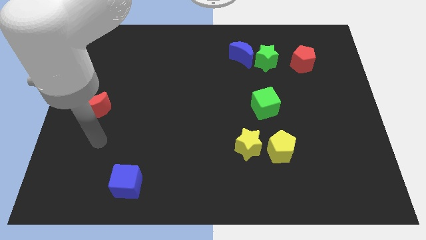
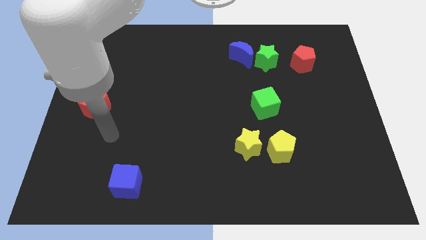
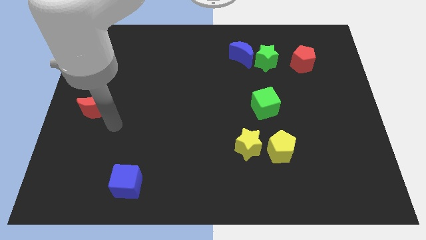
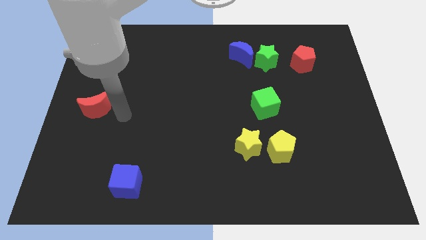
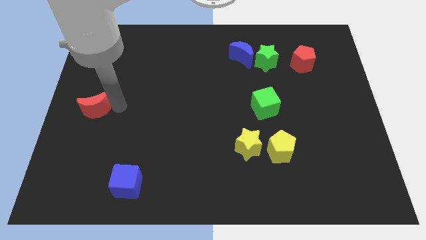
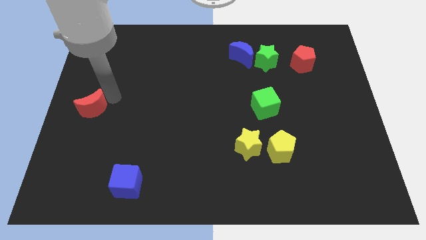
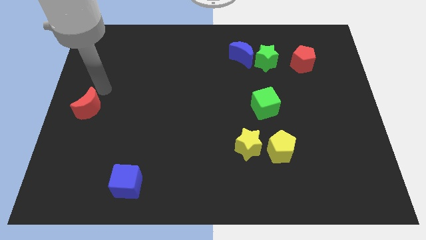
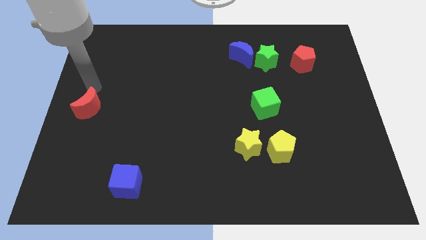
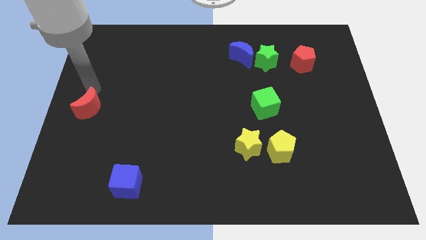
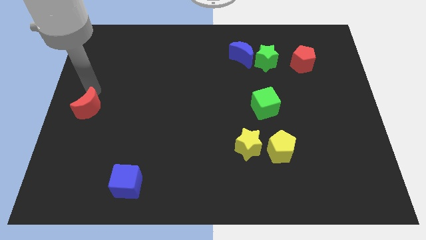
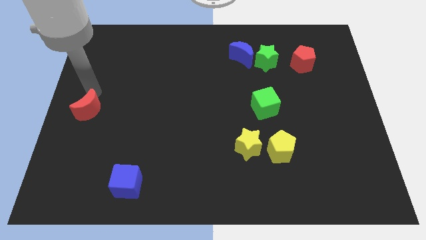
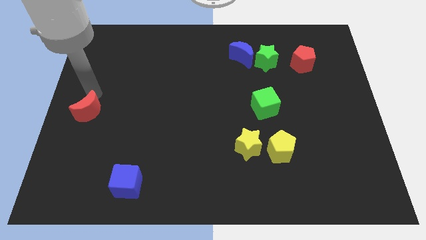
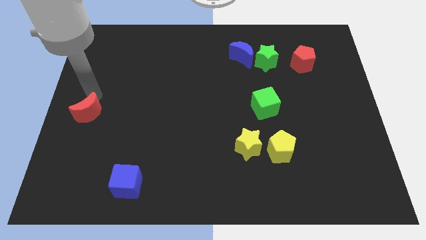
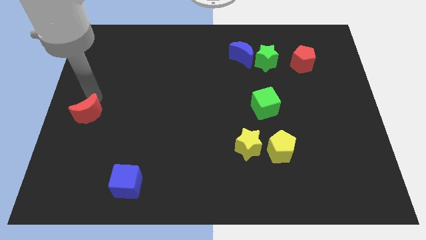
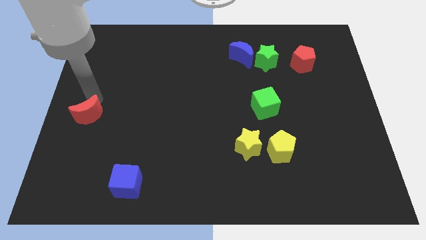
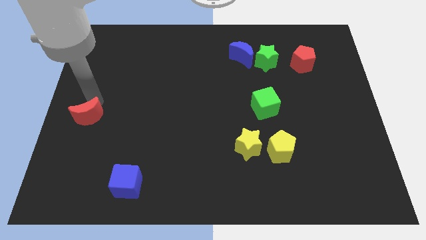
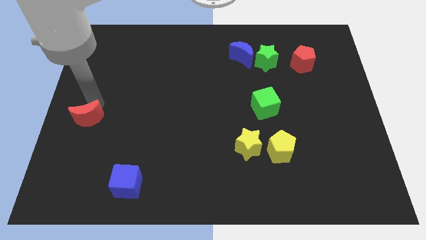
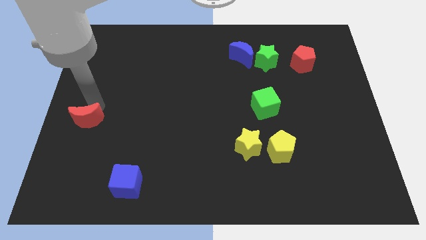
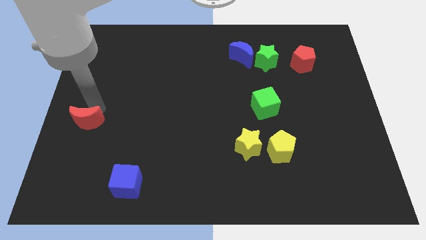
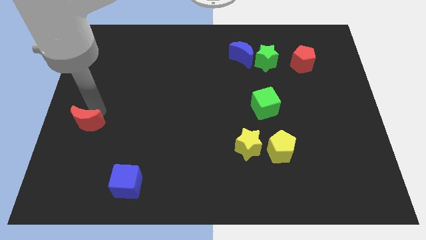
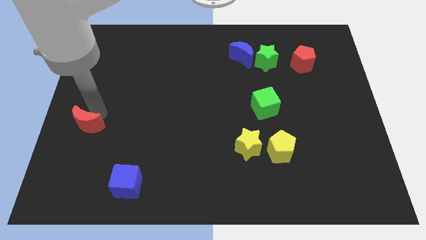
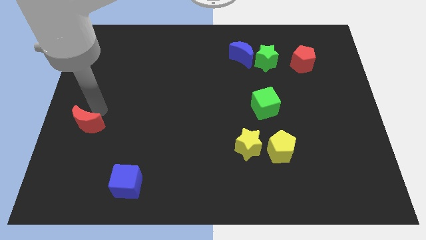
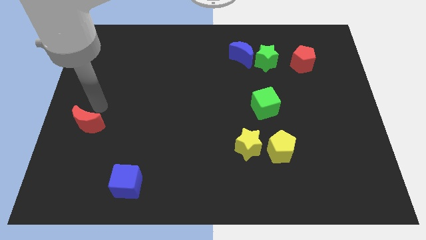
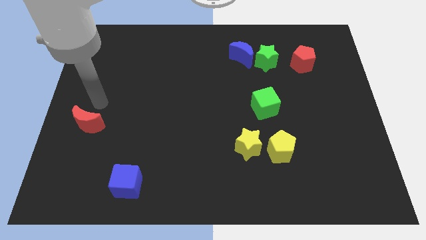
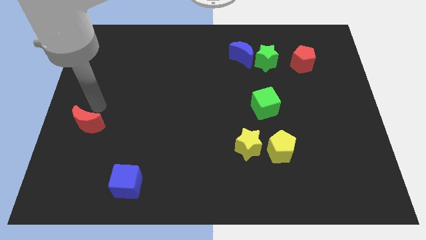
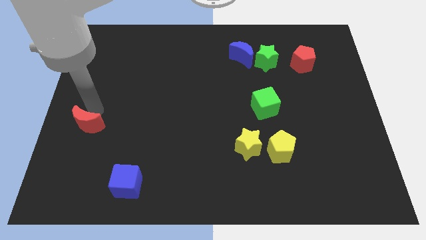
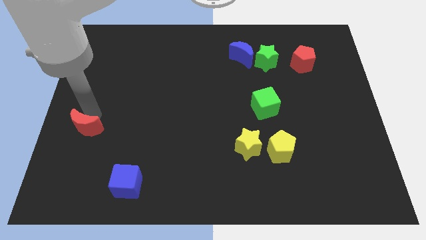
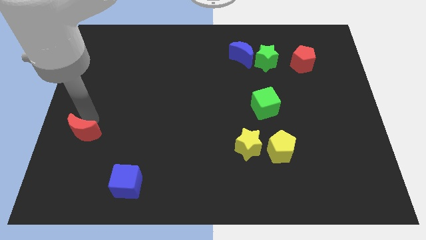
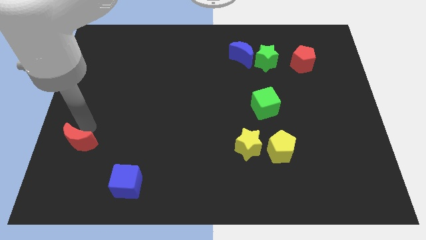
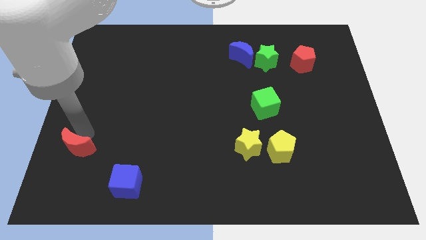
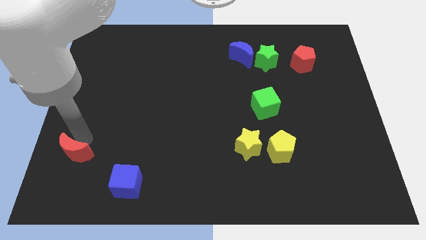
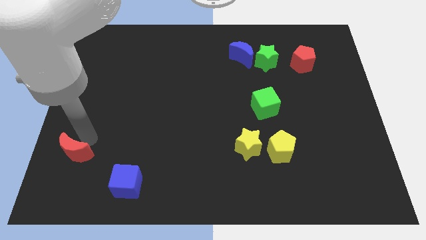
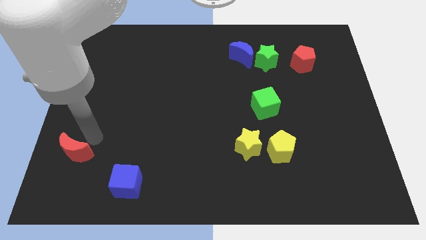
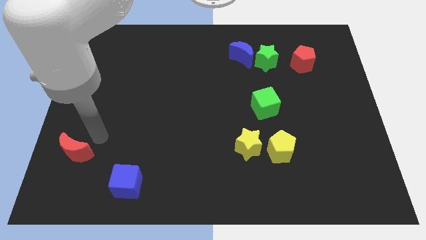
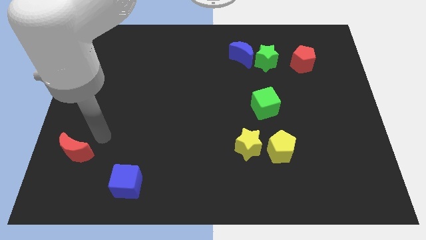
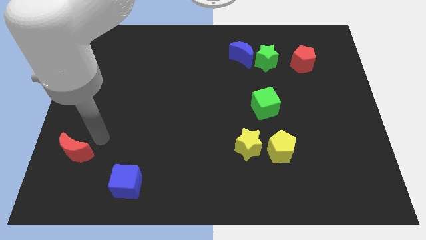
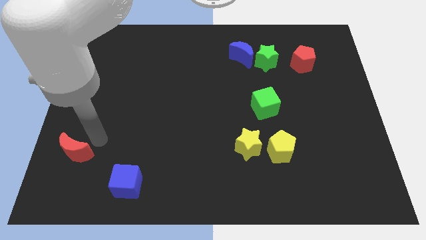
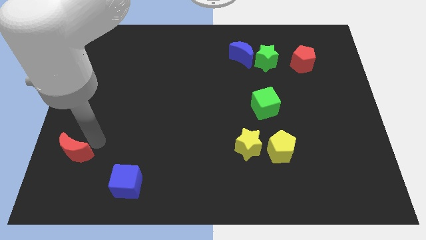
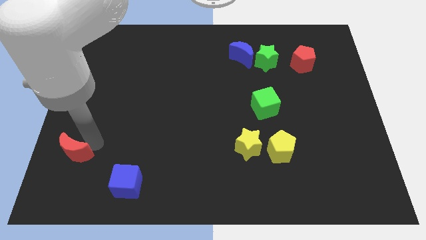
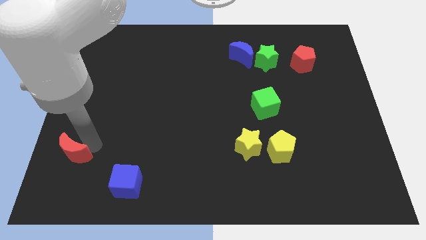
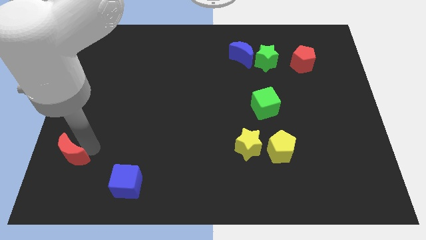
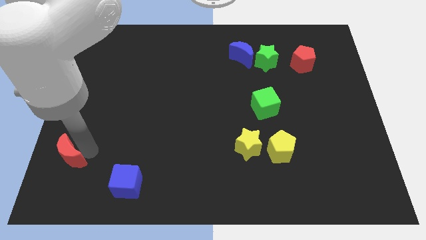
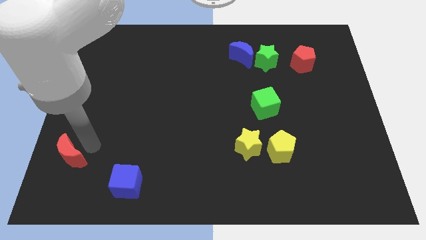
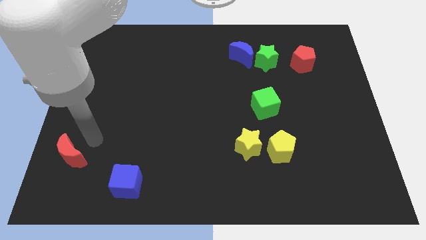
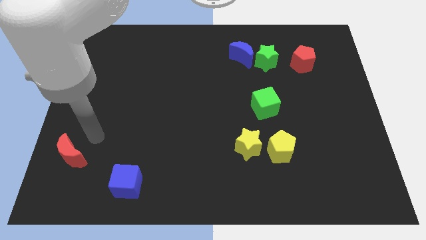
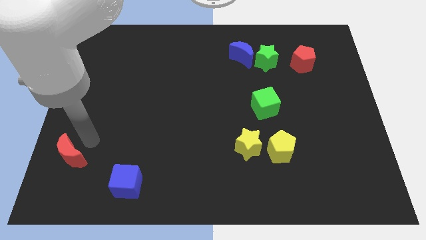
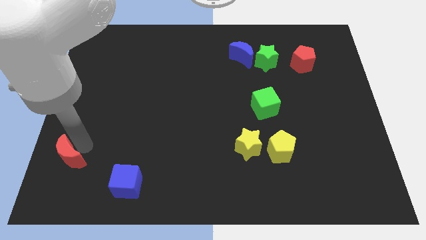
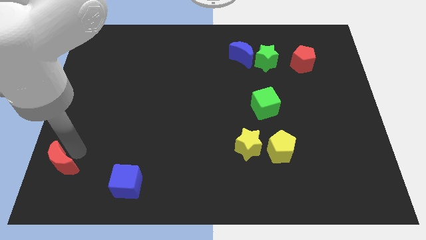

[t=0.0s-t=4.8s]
put the red moon to the bottom left of the board

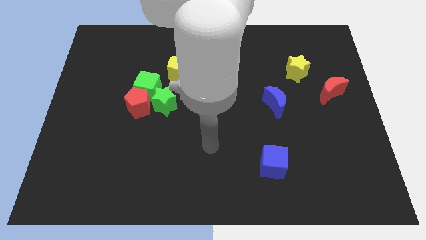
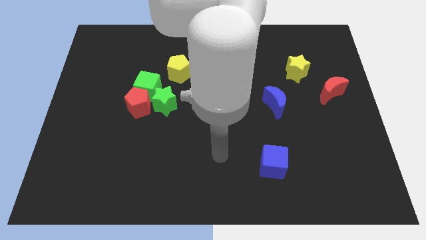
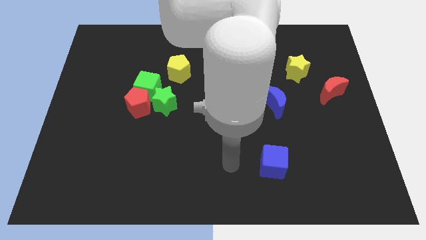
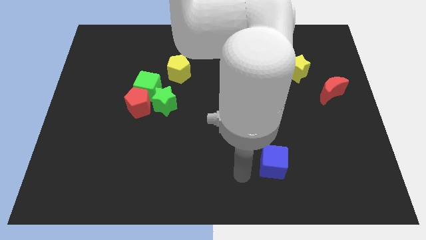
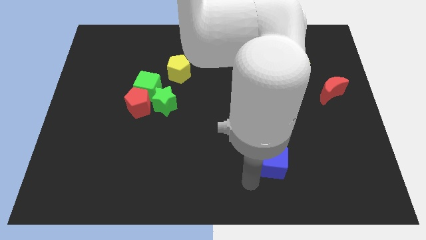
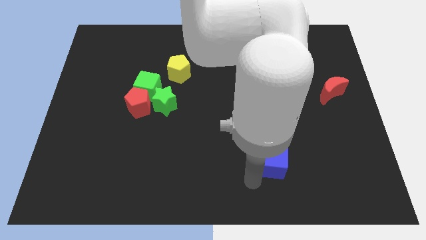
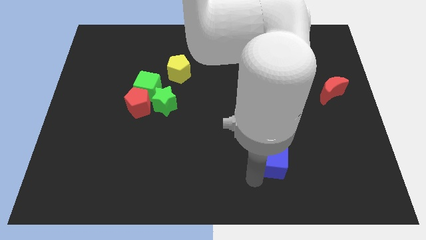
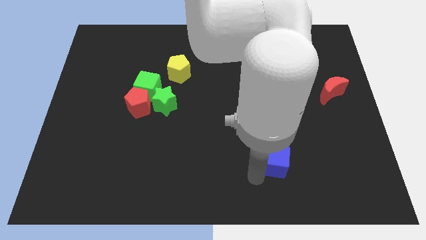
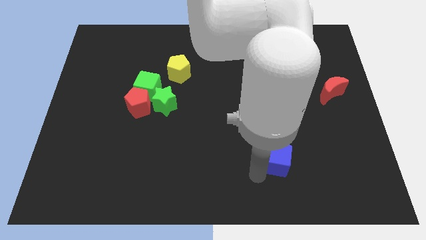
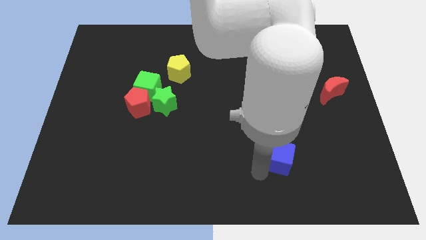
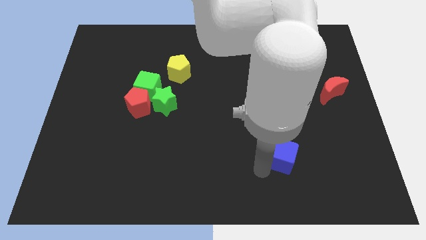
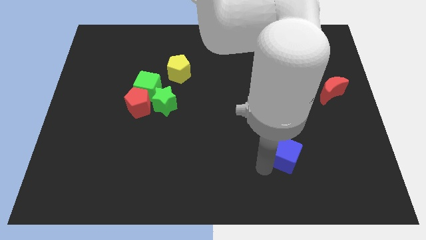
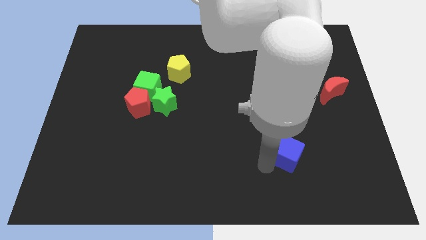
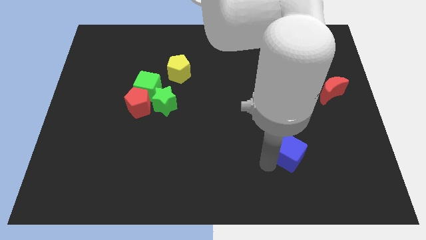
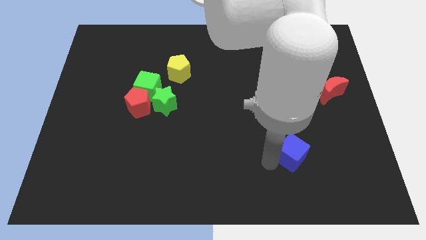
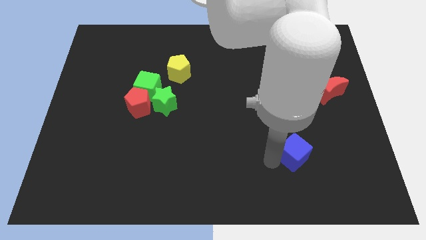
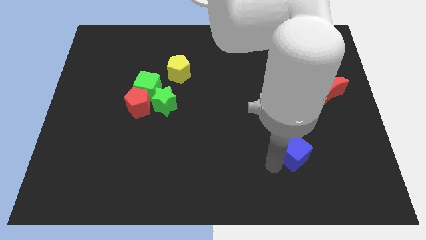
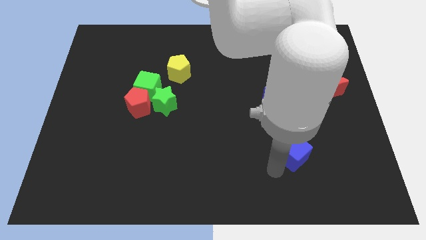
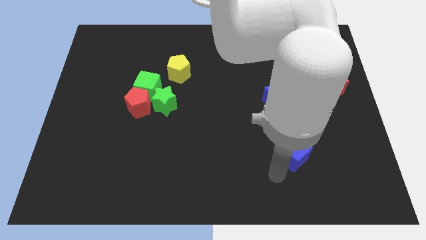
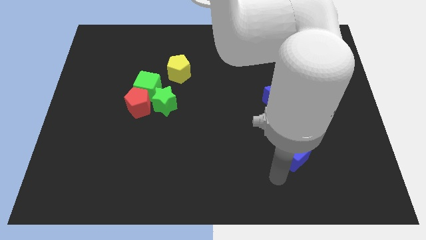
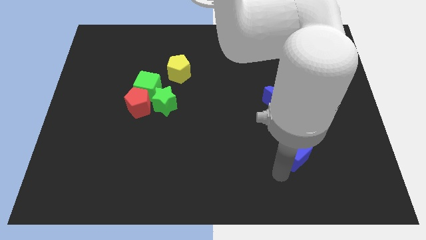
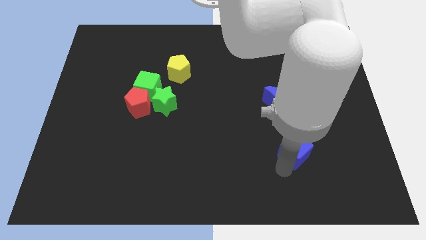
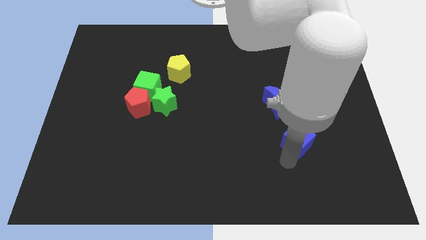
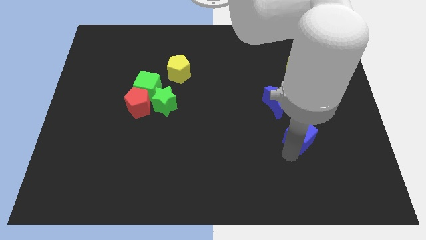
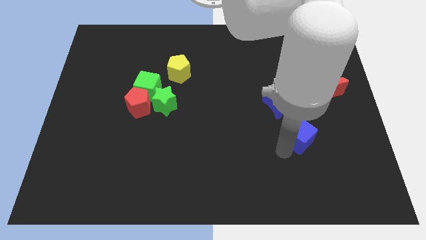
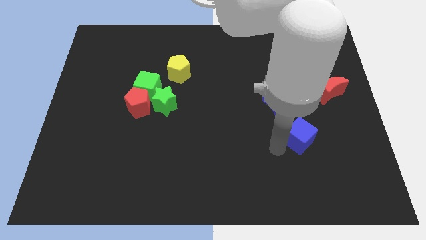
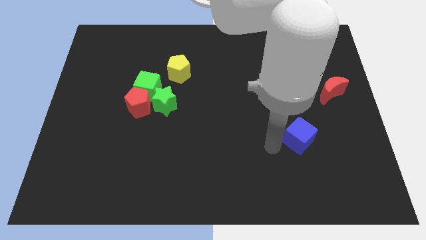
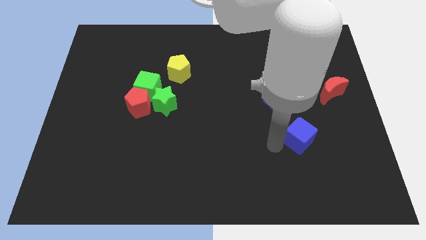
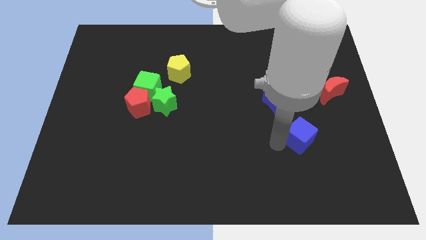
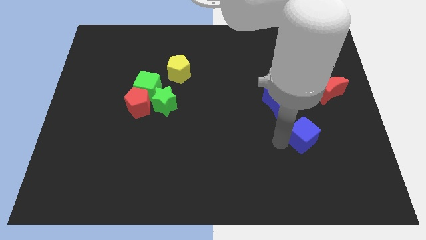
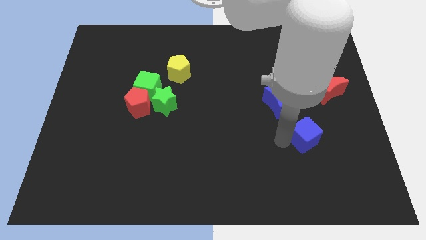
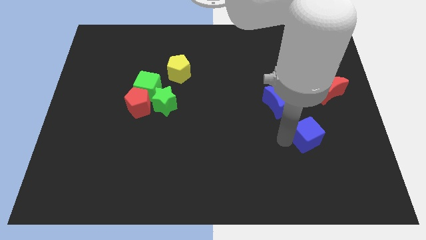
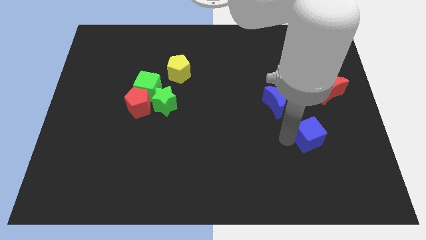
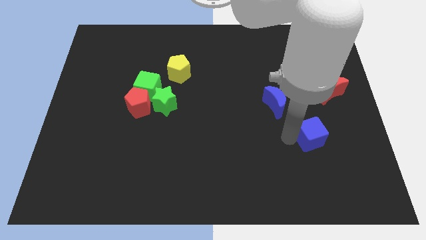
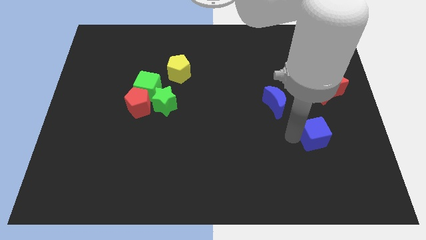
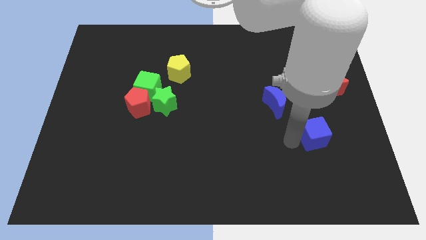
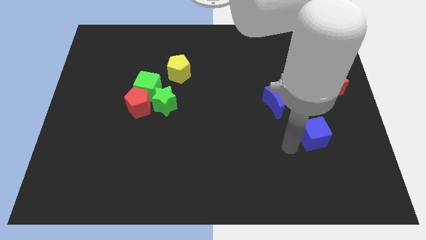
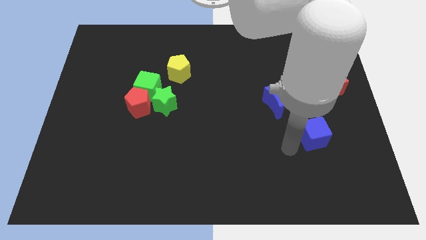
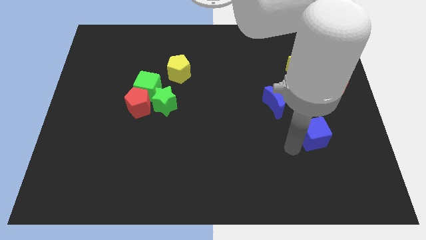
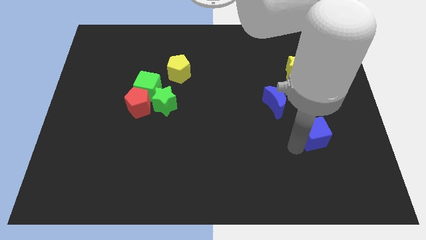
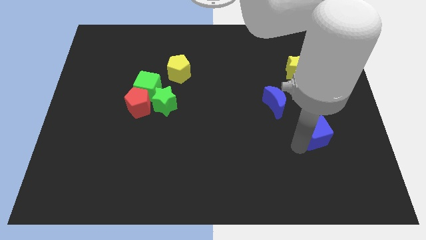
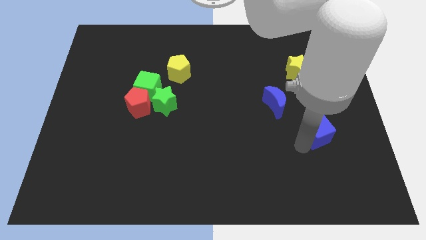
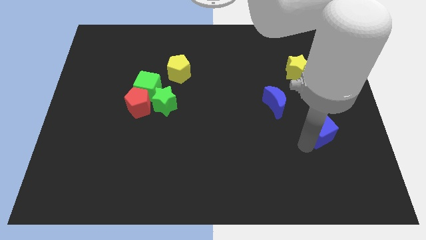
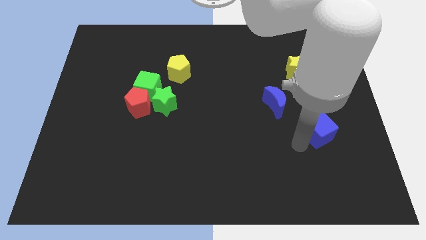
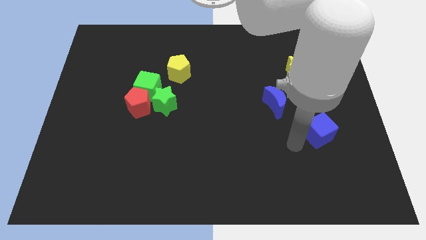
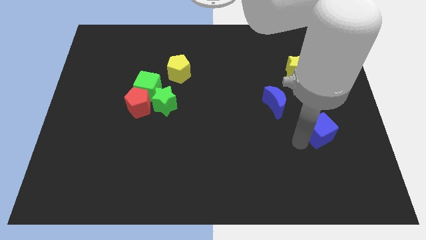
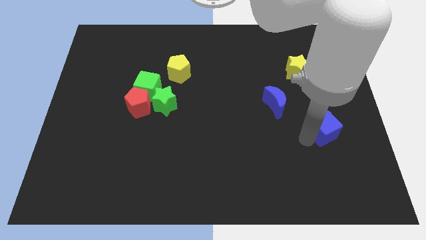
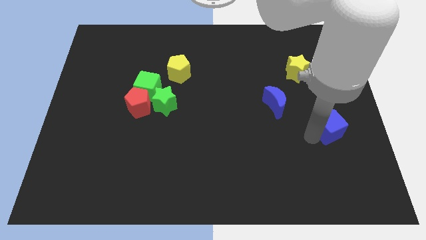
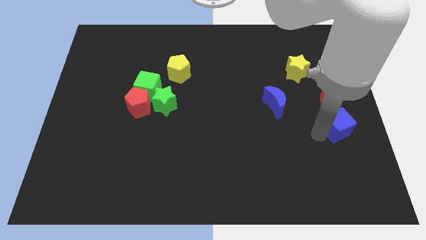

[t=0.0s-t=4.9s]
slide the blue cube to the center right
